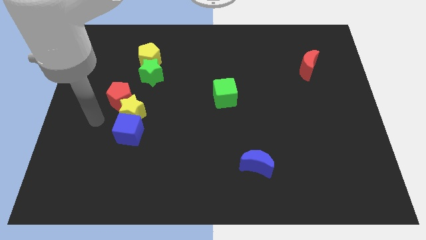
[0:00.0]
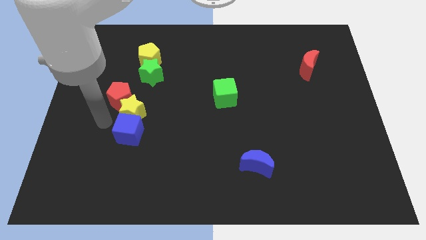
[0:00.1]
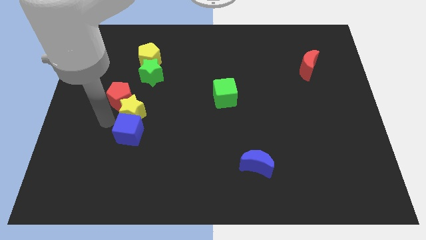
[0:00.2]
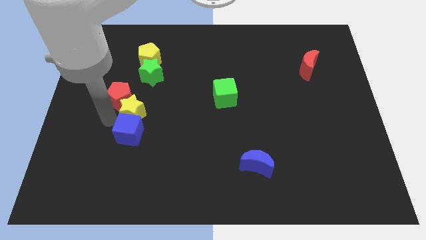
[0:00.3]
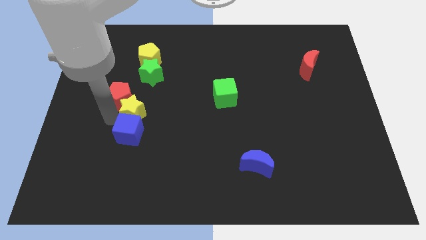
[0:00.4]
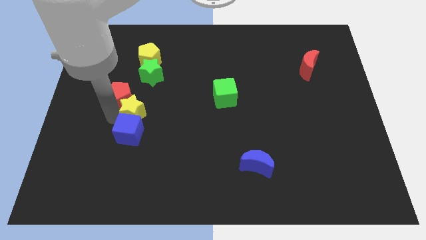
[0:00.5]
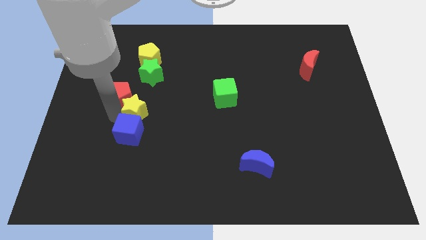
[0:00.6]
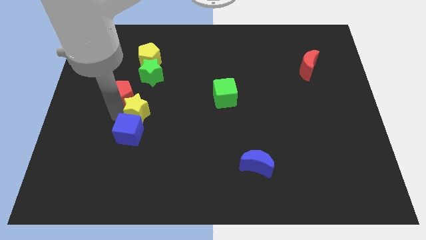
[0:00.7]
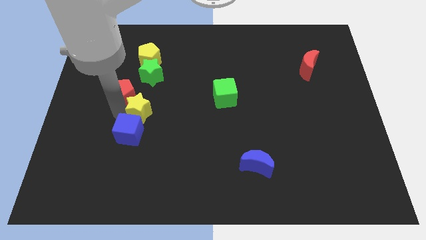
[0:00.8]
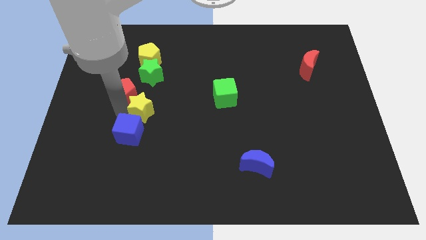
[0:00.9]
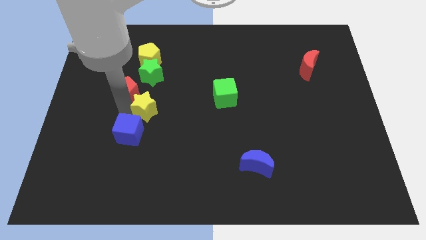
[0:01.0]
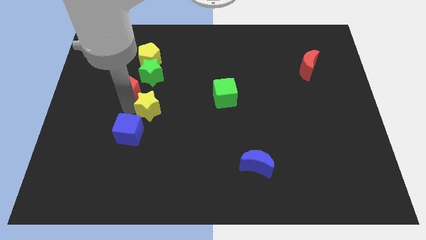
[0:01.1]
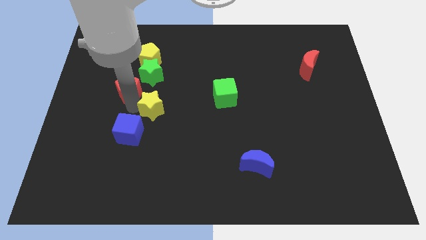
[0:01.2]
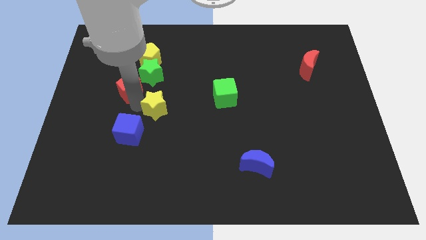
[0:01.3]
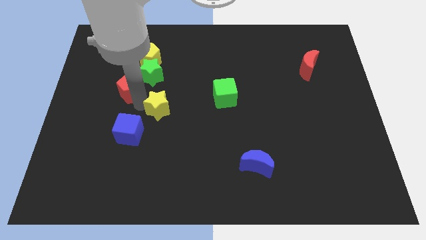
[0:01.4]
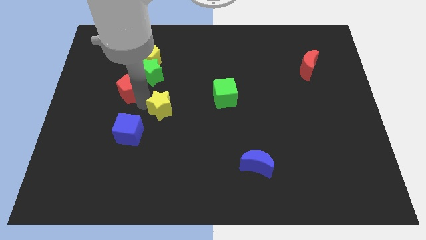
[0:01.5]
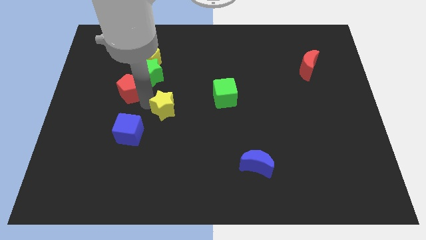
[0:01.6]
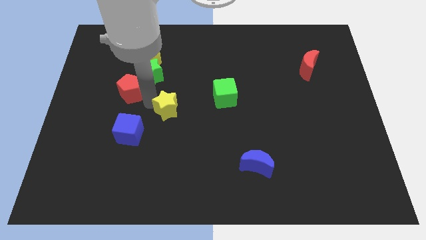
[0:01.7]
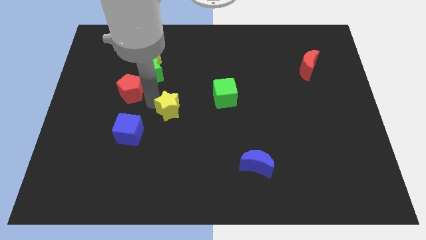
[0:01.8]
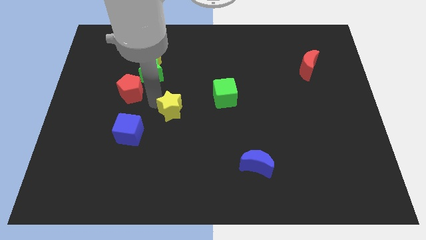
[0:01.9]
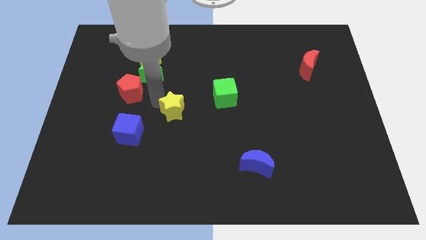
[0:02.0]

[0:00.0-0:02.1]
move the yellow star away from the red pentagon and blue cube

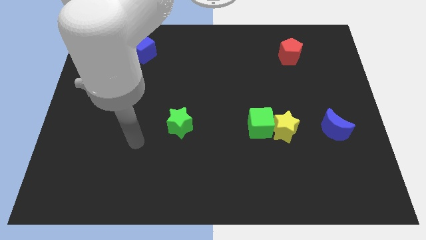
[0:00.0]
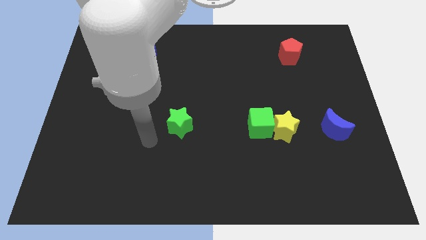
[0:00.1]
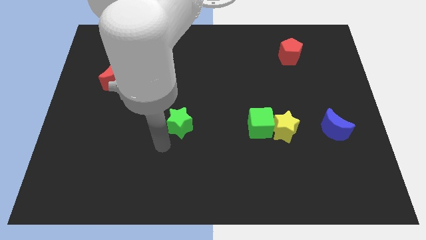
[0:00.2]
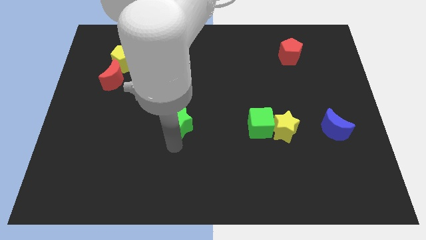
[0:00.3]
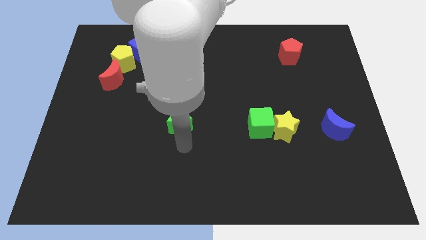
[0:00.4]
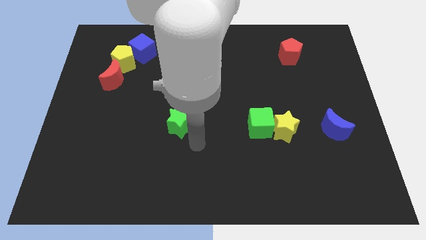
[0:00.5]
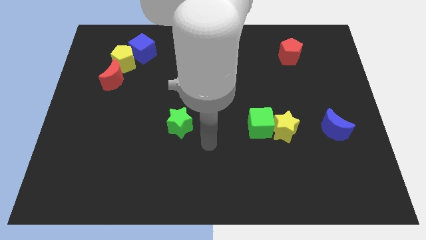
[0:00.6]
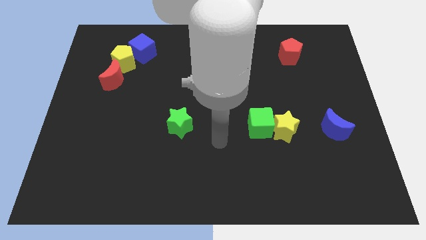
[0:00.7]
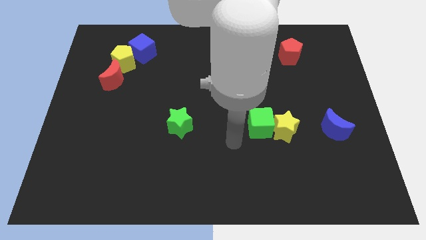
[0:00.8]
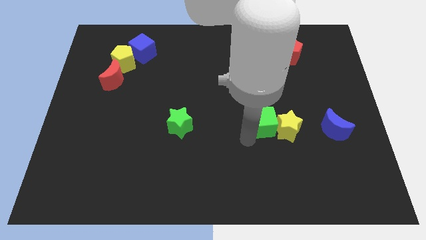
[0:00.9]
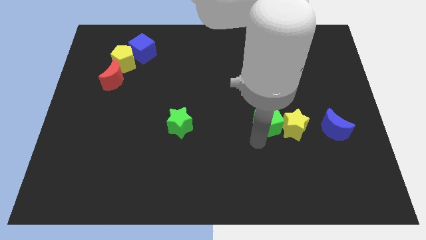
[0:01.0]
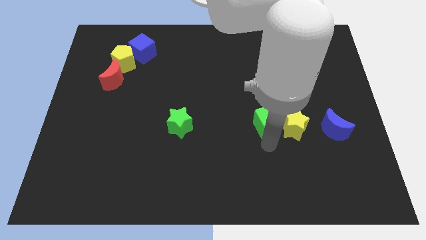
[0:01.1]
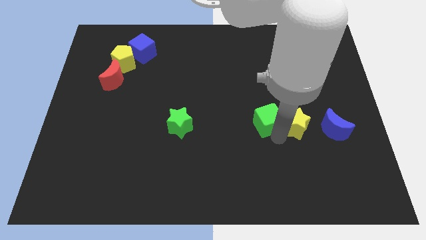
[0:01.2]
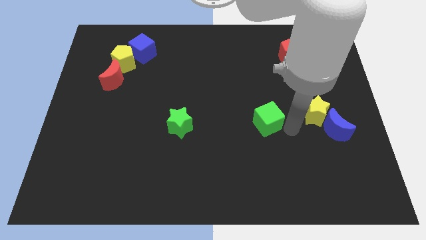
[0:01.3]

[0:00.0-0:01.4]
separate the green cube from the yellow star

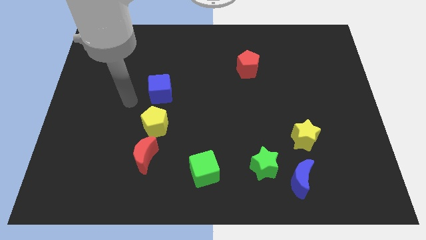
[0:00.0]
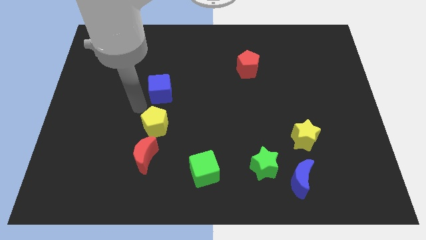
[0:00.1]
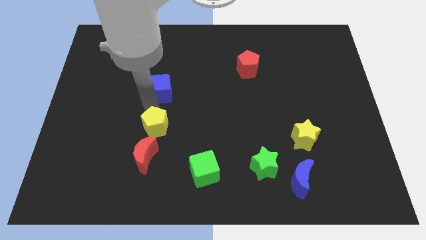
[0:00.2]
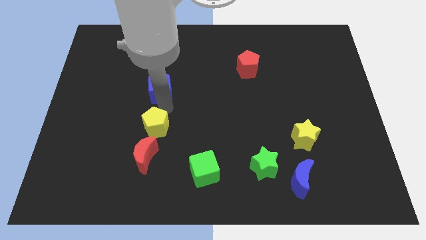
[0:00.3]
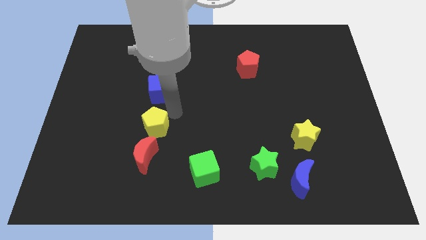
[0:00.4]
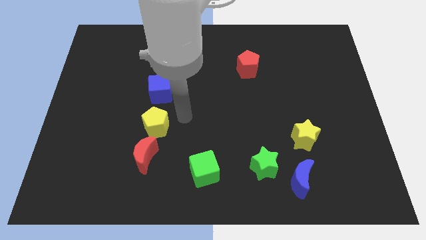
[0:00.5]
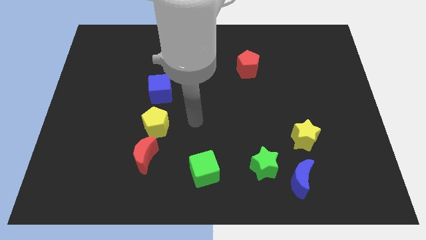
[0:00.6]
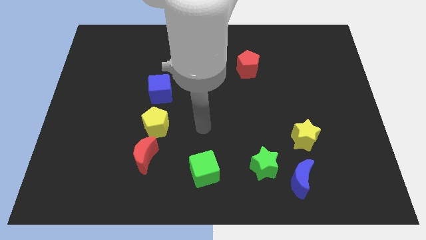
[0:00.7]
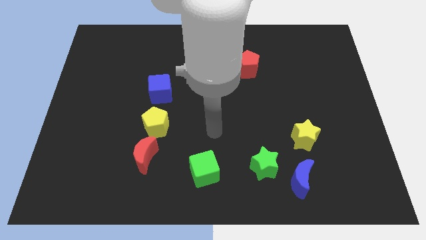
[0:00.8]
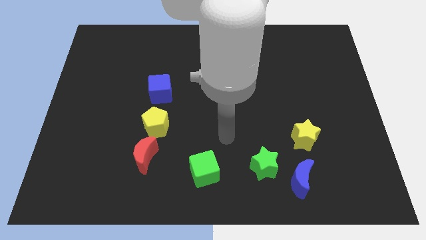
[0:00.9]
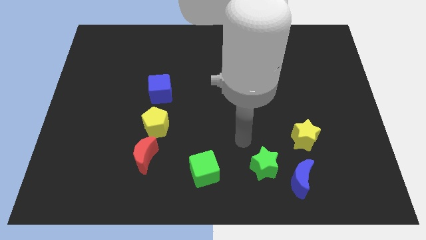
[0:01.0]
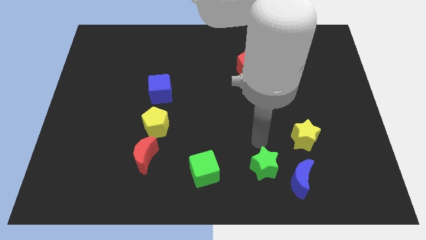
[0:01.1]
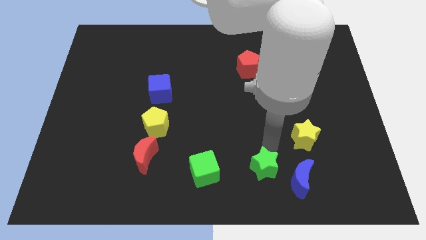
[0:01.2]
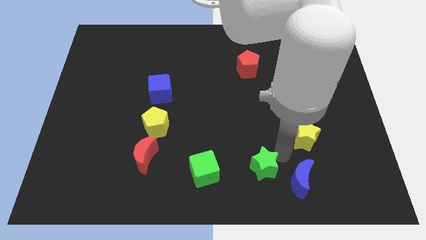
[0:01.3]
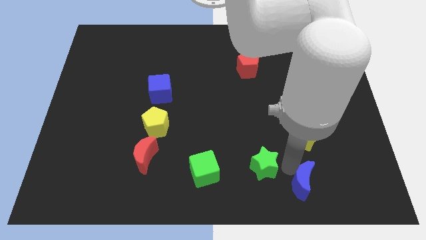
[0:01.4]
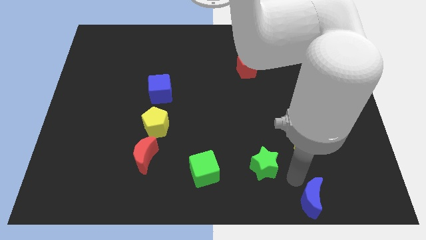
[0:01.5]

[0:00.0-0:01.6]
move the green star away from the blue moon

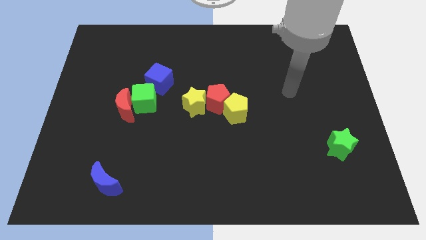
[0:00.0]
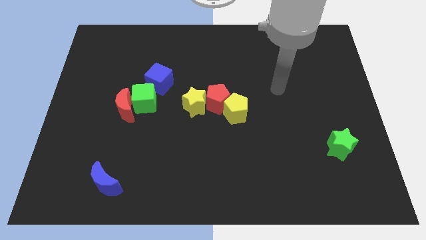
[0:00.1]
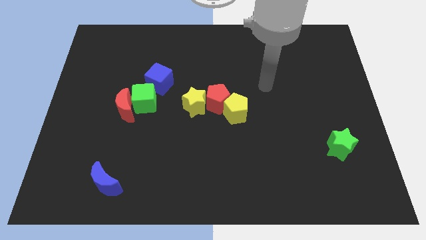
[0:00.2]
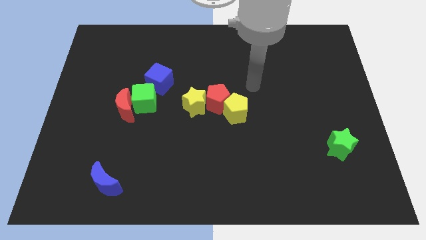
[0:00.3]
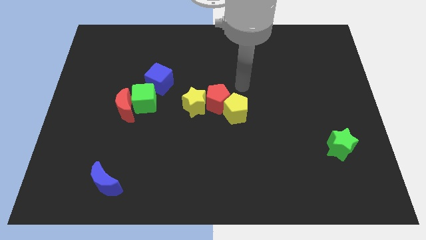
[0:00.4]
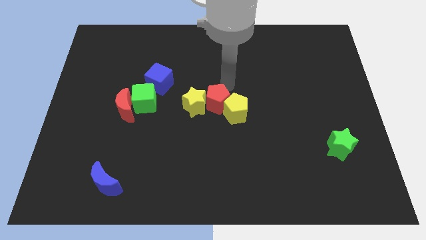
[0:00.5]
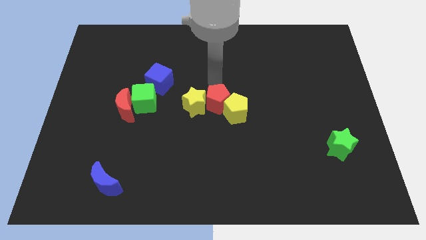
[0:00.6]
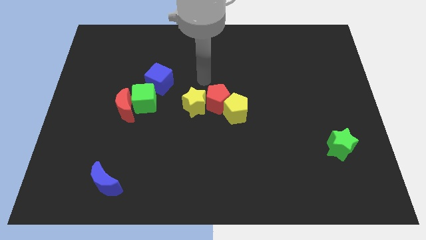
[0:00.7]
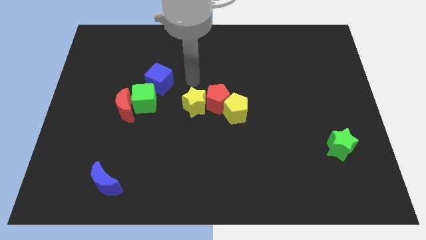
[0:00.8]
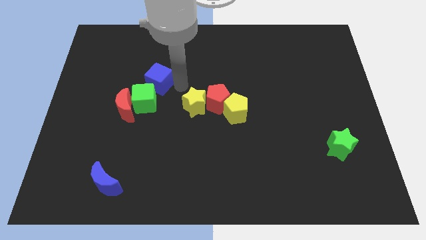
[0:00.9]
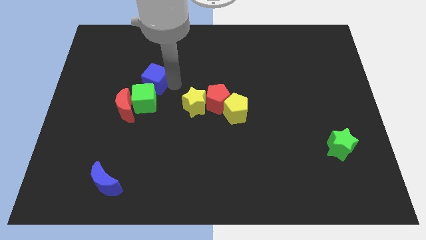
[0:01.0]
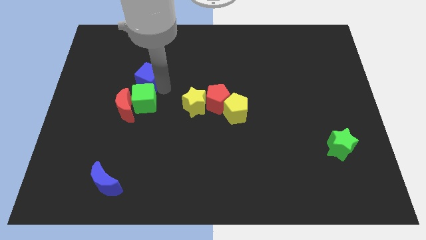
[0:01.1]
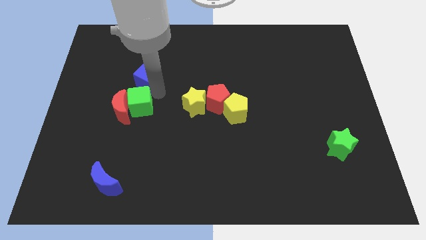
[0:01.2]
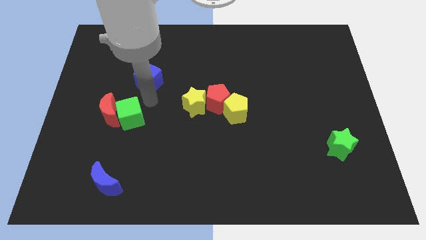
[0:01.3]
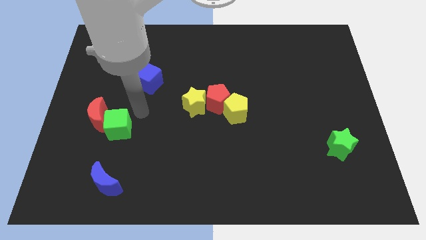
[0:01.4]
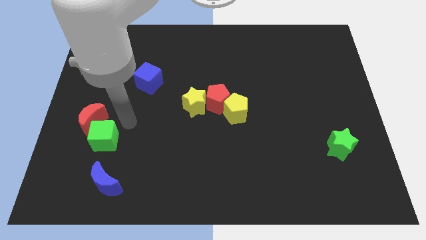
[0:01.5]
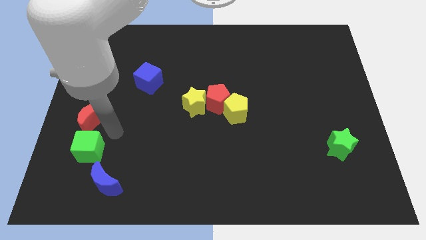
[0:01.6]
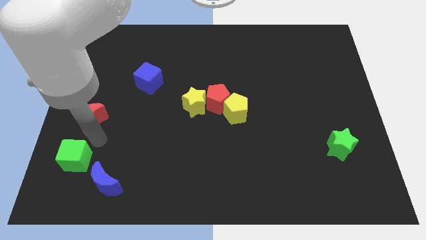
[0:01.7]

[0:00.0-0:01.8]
separate the red moon from the green cube

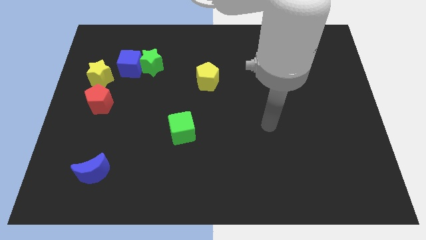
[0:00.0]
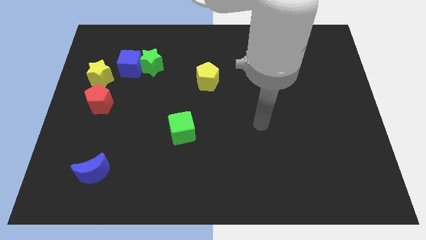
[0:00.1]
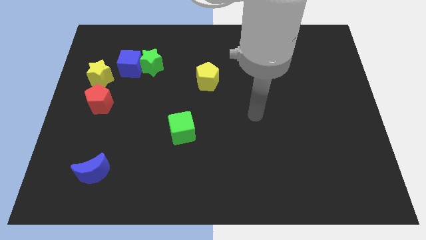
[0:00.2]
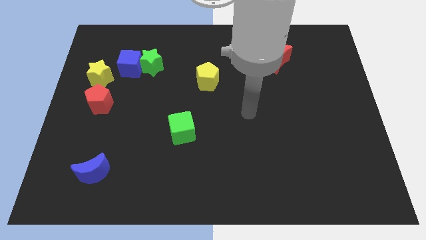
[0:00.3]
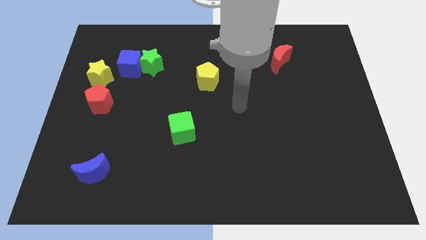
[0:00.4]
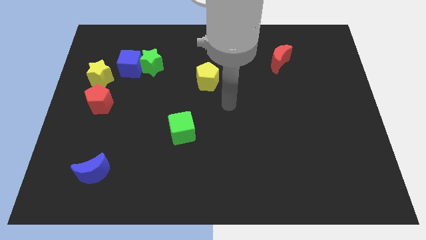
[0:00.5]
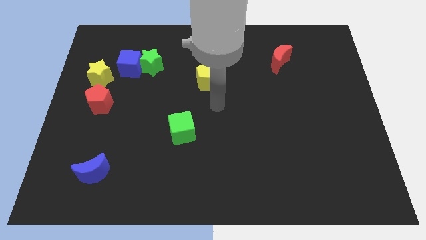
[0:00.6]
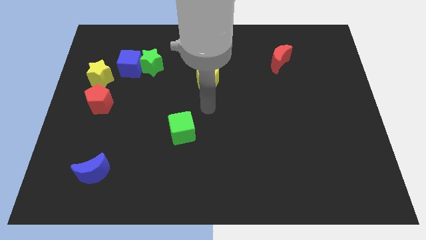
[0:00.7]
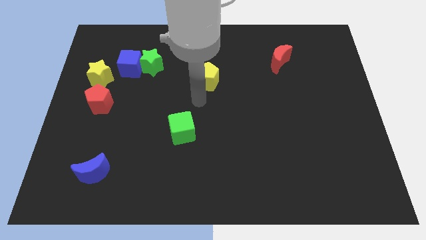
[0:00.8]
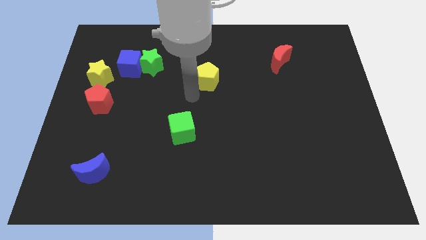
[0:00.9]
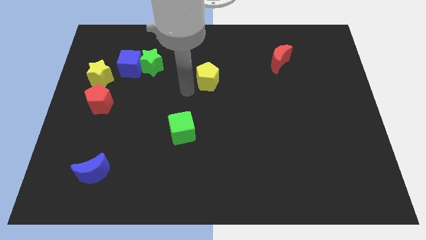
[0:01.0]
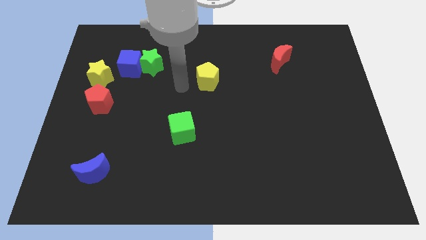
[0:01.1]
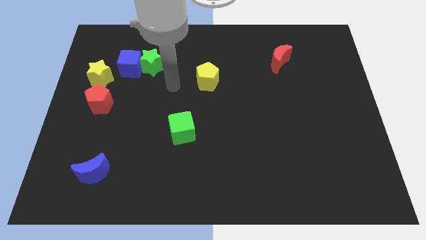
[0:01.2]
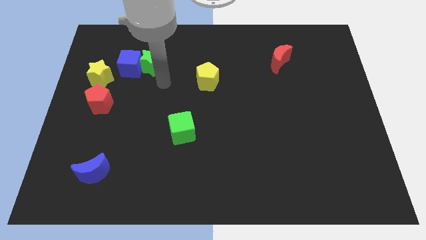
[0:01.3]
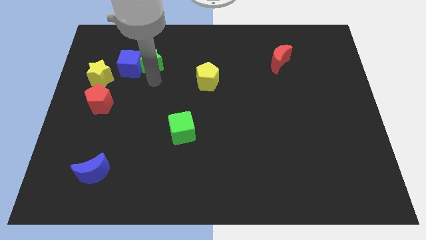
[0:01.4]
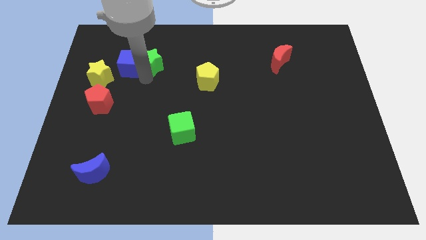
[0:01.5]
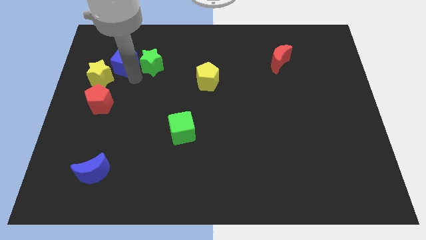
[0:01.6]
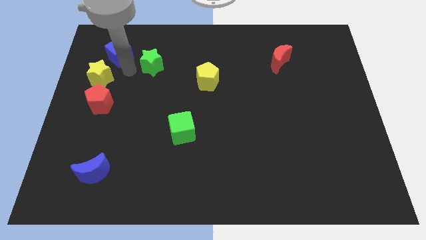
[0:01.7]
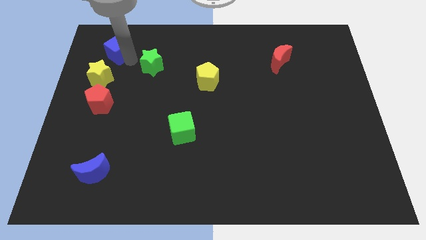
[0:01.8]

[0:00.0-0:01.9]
separate the green star from the blue cube

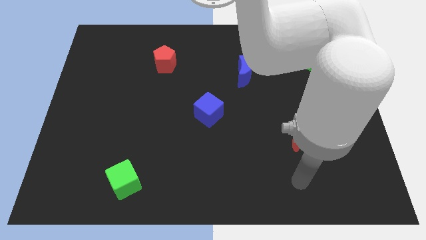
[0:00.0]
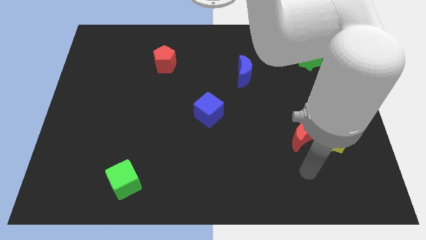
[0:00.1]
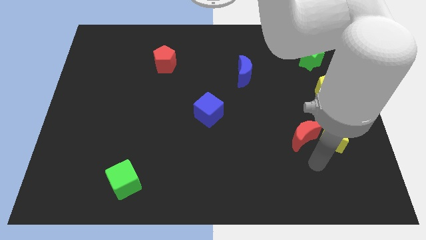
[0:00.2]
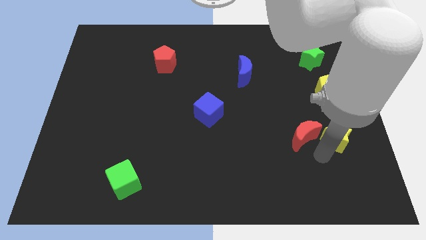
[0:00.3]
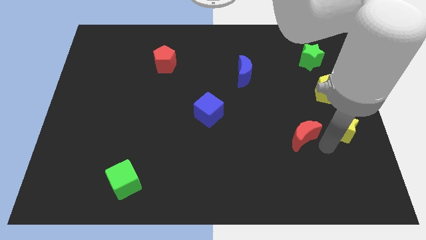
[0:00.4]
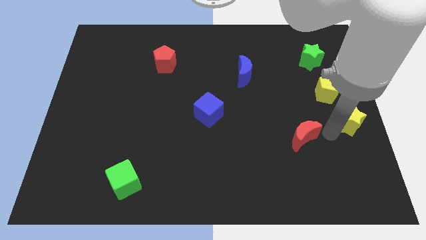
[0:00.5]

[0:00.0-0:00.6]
separate the red moon from the yellow star
